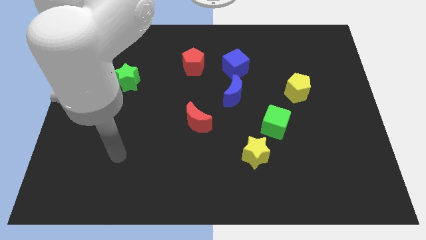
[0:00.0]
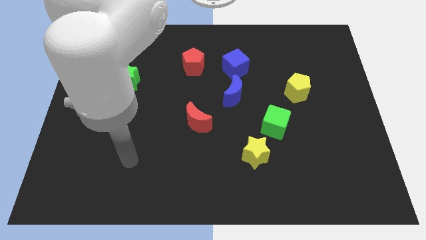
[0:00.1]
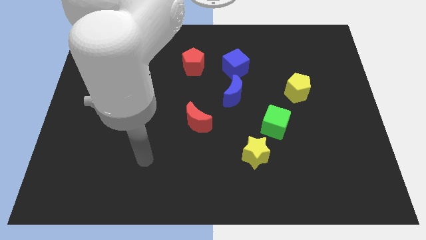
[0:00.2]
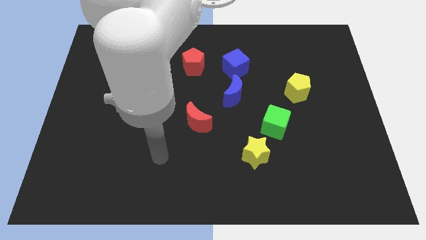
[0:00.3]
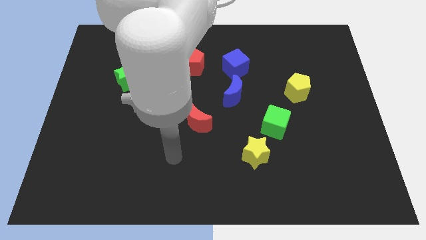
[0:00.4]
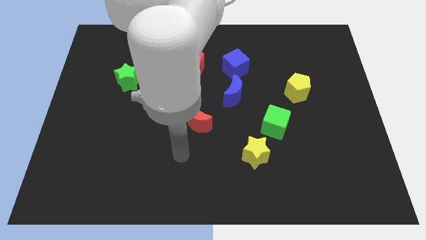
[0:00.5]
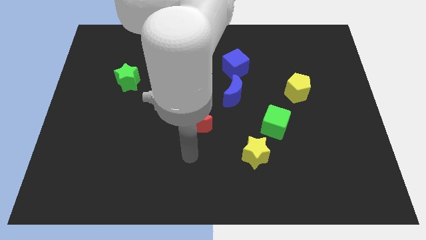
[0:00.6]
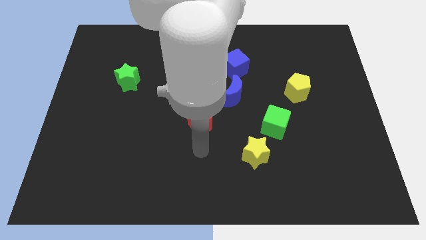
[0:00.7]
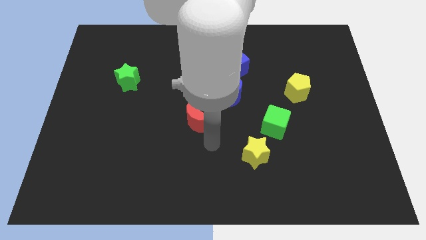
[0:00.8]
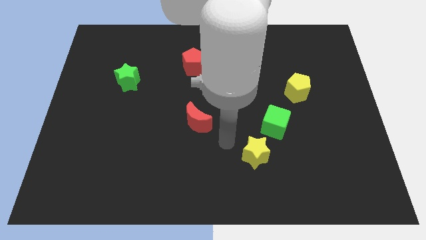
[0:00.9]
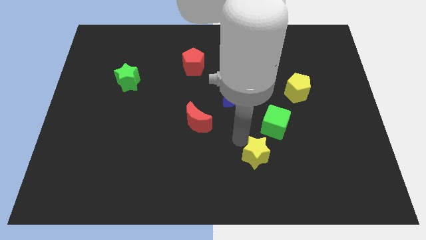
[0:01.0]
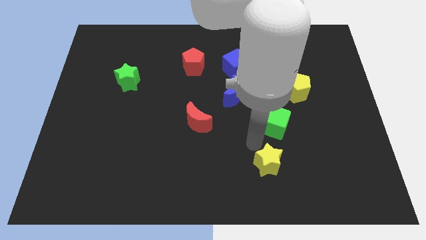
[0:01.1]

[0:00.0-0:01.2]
move the green cube away from the yellow star

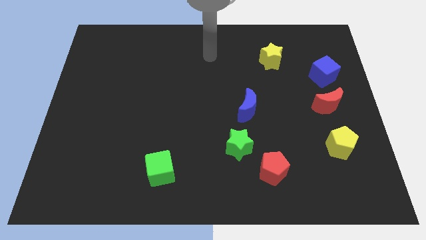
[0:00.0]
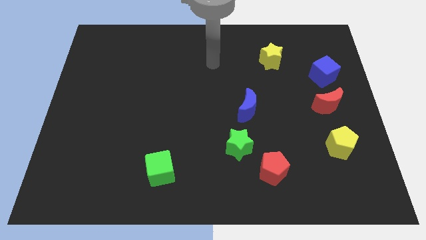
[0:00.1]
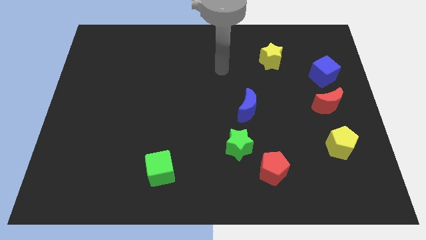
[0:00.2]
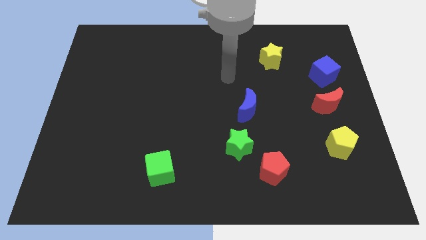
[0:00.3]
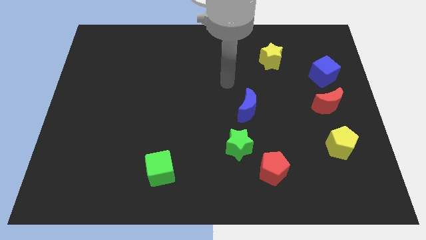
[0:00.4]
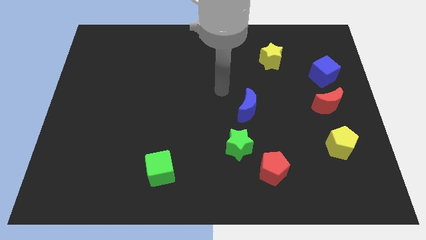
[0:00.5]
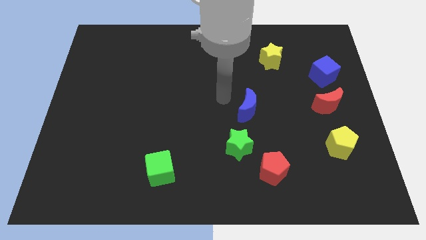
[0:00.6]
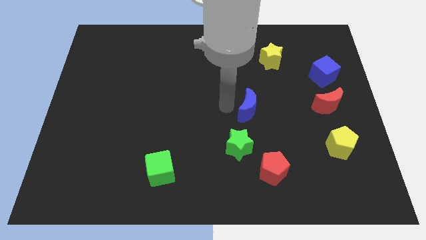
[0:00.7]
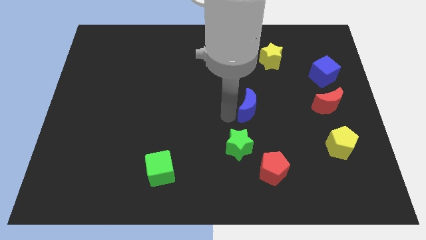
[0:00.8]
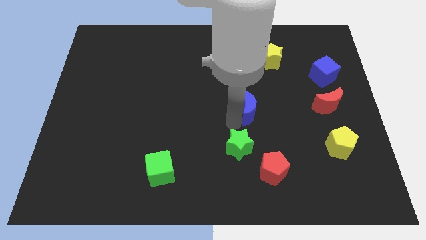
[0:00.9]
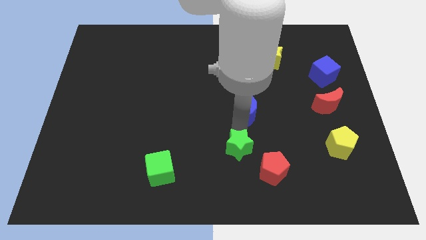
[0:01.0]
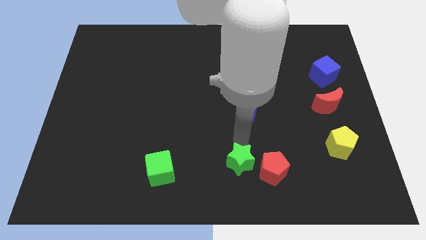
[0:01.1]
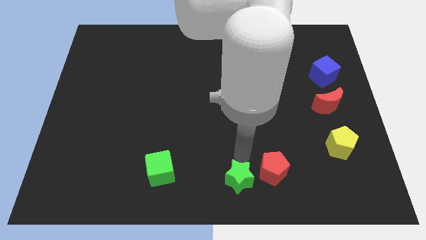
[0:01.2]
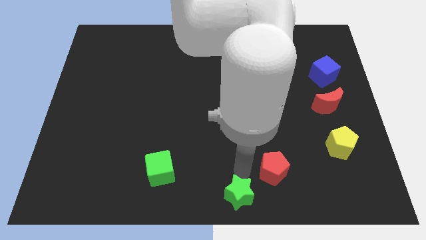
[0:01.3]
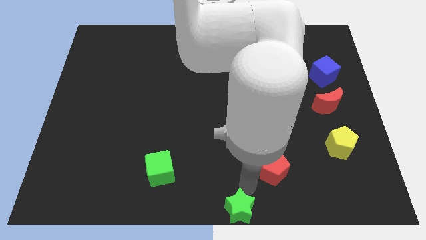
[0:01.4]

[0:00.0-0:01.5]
separate the red pentagon from the green star

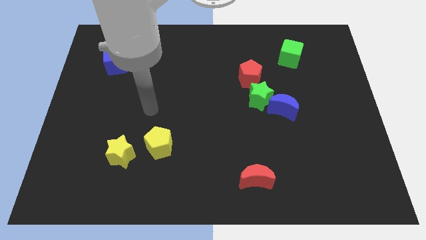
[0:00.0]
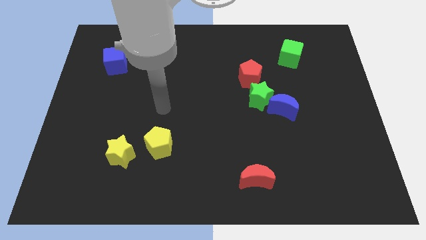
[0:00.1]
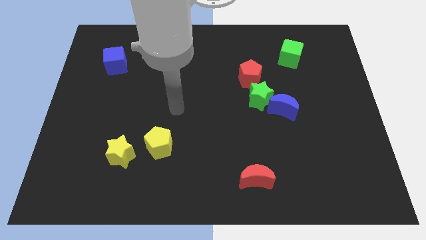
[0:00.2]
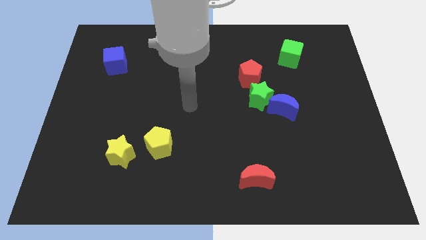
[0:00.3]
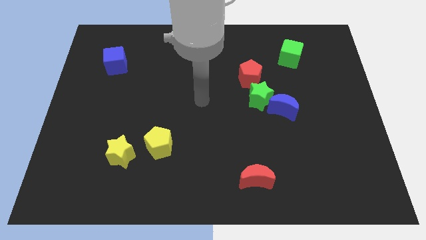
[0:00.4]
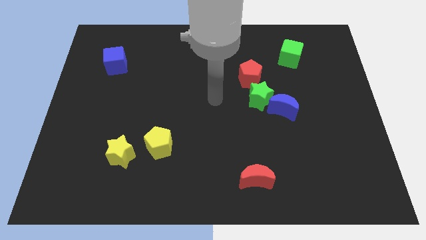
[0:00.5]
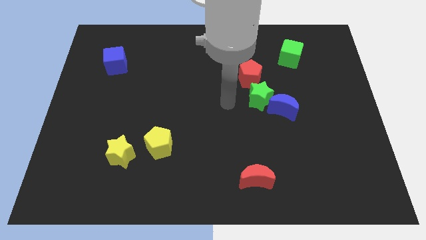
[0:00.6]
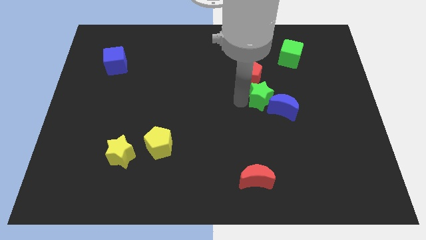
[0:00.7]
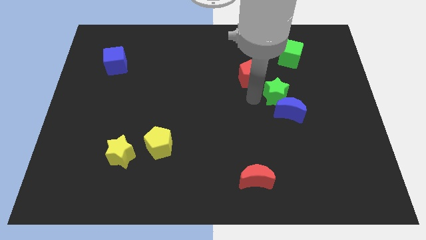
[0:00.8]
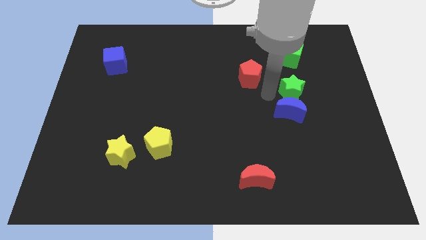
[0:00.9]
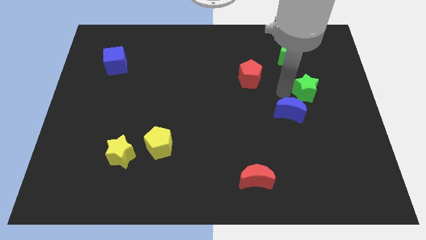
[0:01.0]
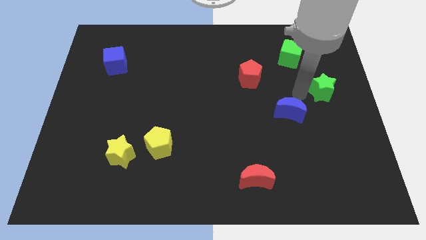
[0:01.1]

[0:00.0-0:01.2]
move the blue moon away from the green star

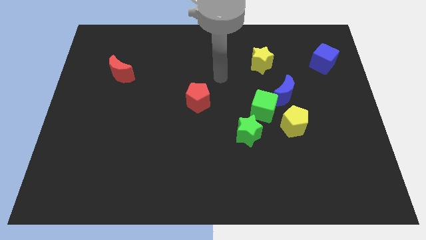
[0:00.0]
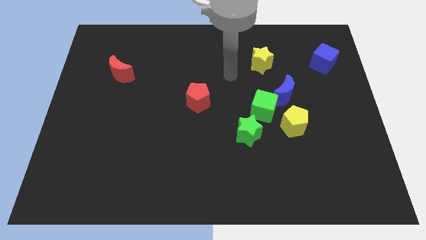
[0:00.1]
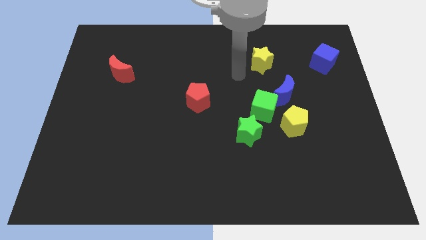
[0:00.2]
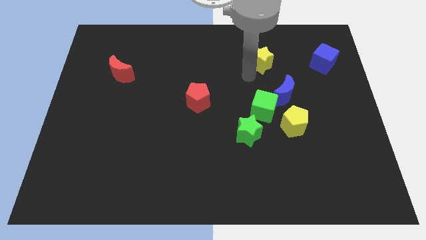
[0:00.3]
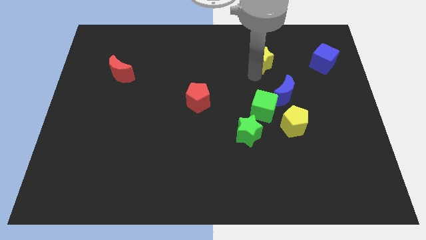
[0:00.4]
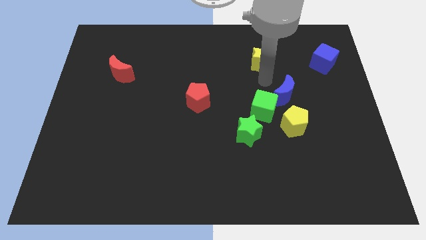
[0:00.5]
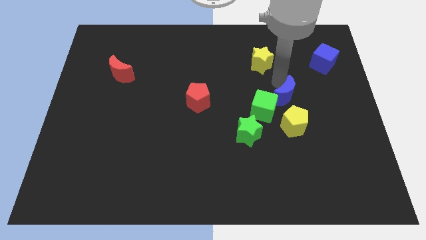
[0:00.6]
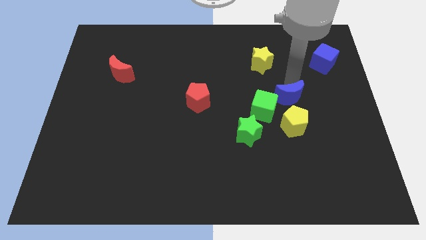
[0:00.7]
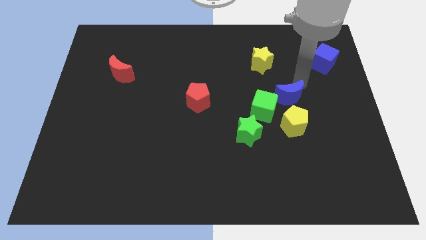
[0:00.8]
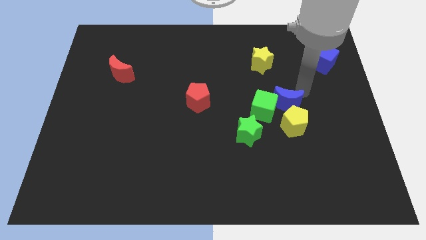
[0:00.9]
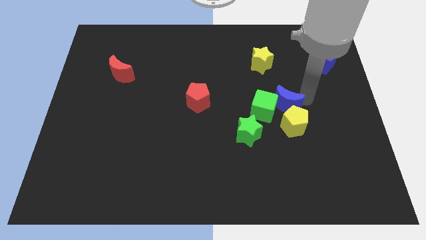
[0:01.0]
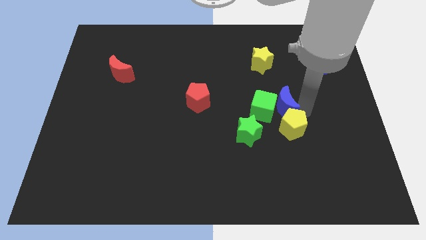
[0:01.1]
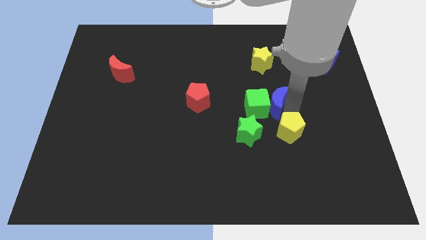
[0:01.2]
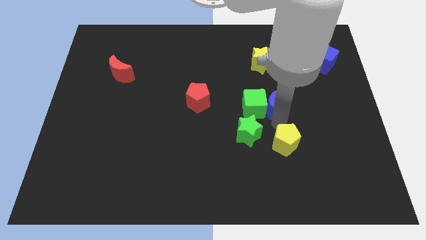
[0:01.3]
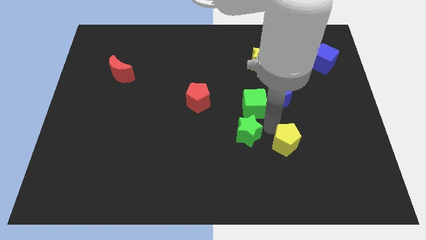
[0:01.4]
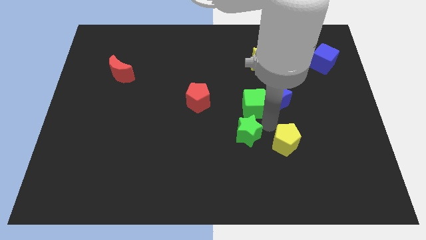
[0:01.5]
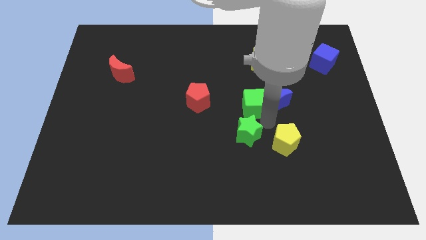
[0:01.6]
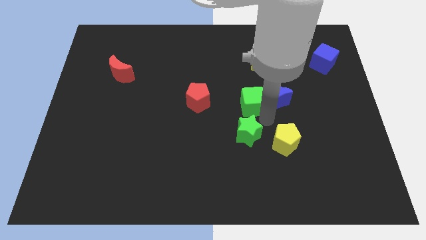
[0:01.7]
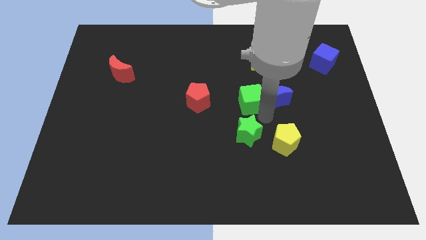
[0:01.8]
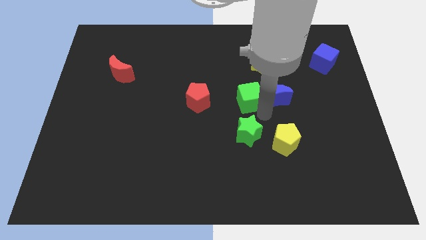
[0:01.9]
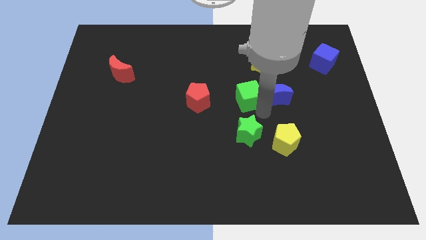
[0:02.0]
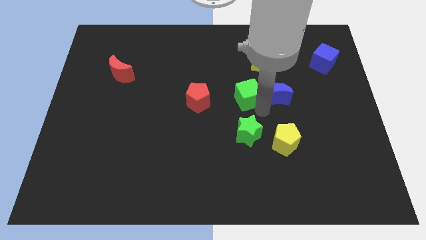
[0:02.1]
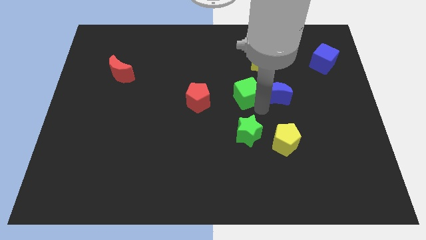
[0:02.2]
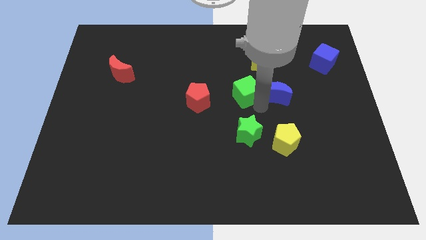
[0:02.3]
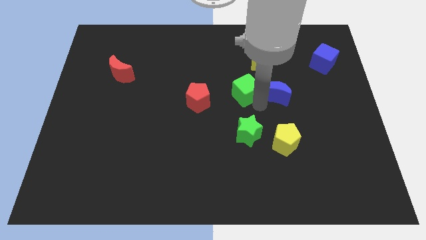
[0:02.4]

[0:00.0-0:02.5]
pull the green cube apart from the blue moon, yellow pentagon, and green star

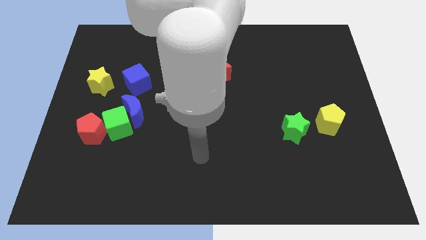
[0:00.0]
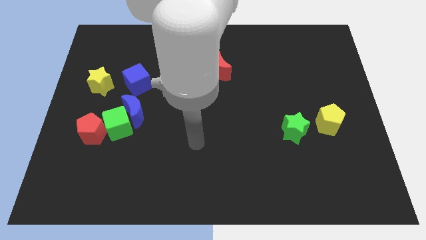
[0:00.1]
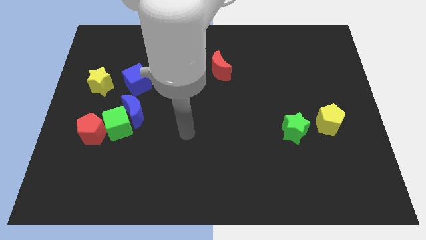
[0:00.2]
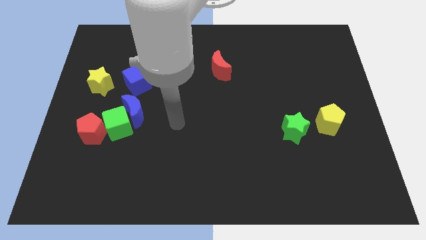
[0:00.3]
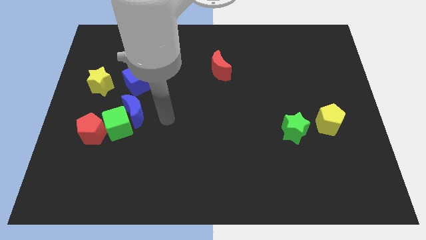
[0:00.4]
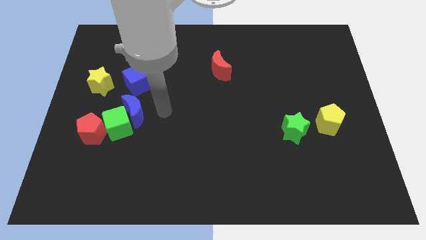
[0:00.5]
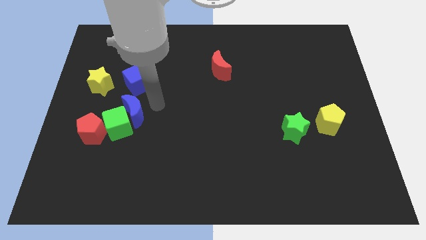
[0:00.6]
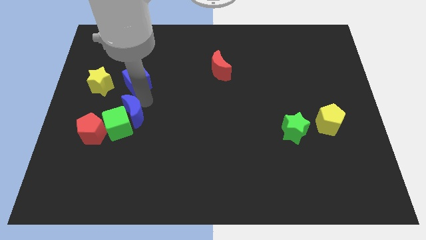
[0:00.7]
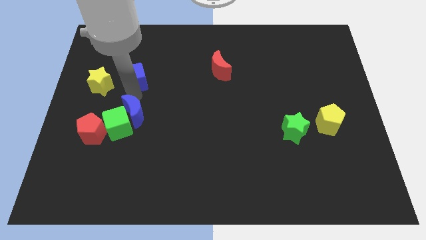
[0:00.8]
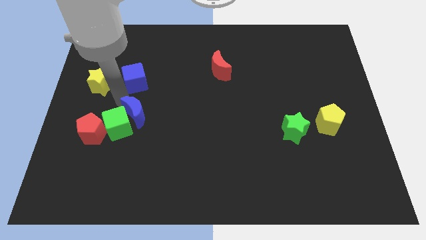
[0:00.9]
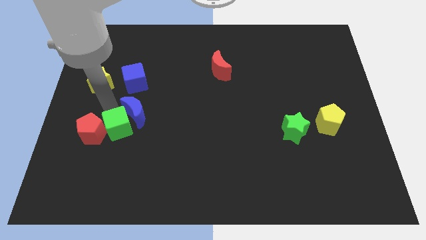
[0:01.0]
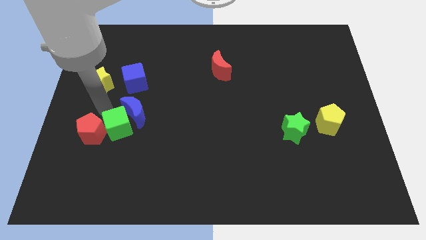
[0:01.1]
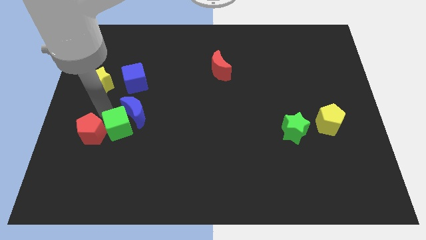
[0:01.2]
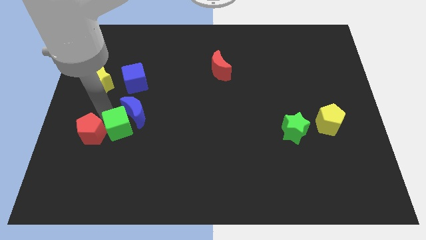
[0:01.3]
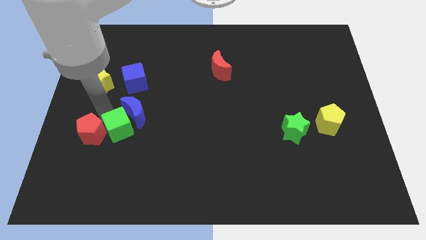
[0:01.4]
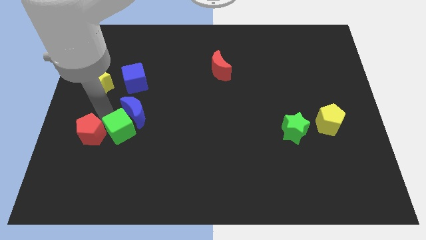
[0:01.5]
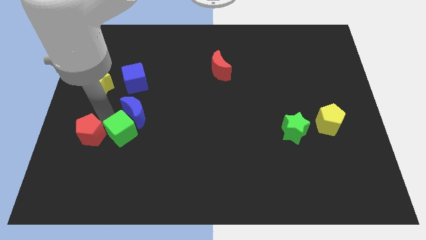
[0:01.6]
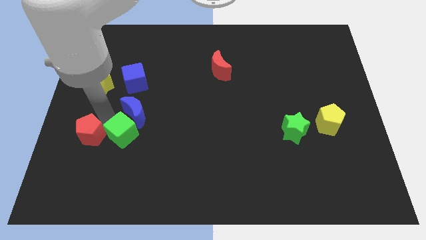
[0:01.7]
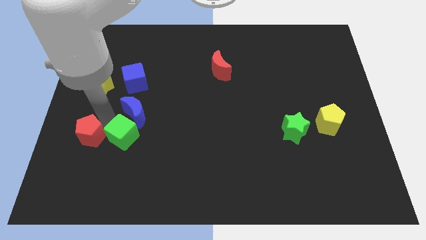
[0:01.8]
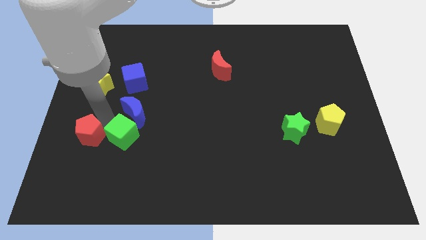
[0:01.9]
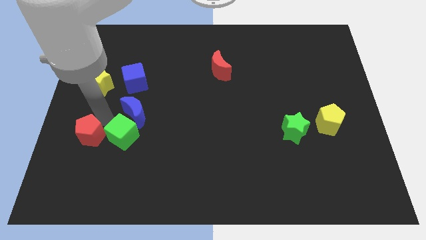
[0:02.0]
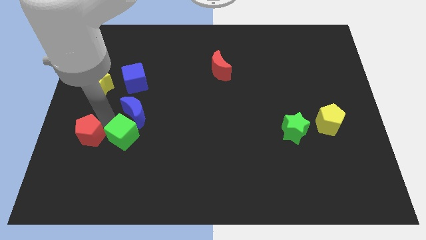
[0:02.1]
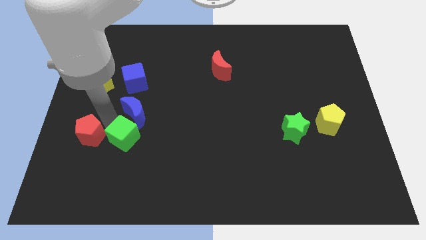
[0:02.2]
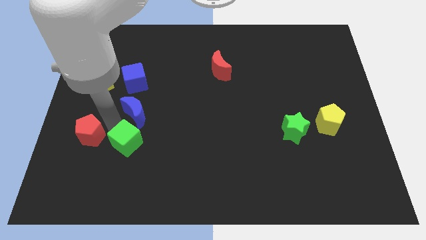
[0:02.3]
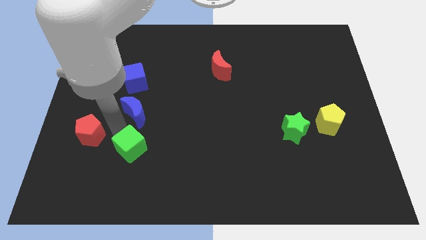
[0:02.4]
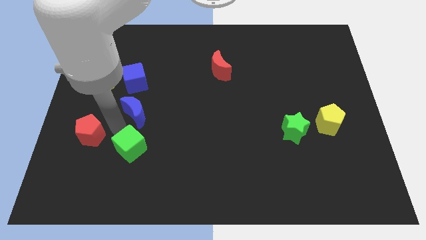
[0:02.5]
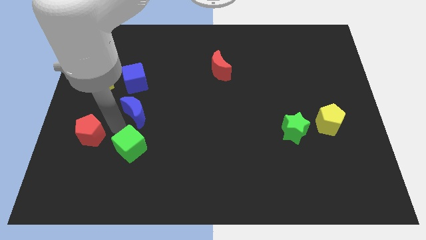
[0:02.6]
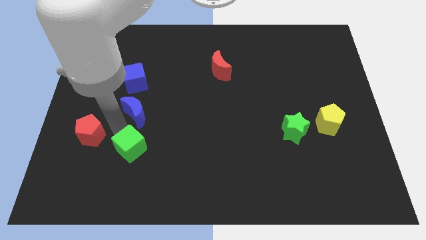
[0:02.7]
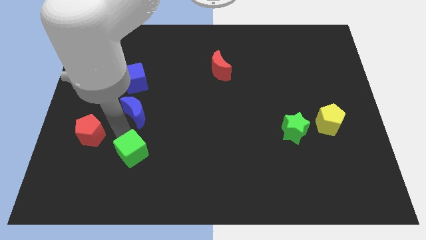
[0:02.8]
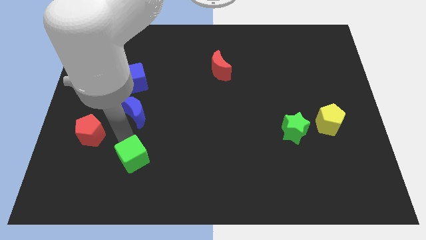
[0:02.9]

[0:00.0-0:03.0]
move the green cube away from the blue moon and red pentagon
